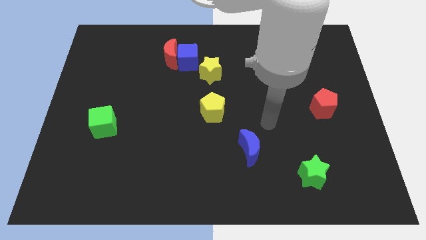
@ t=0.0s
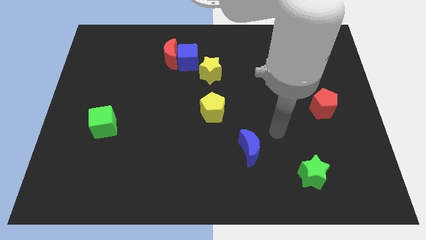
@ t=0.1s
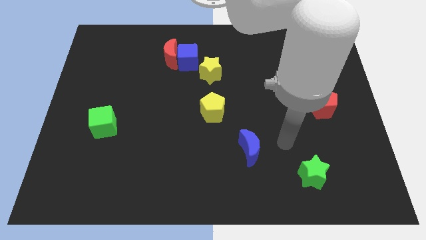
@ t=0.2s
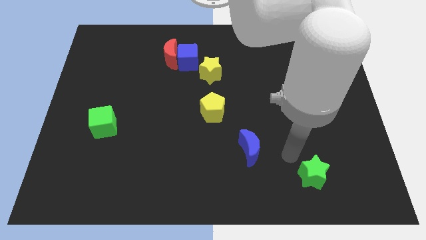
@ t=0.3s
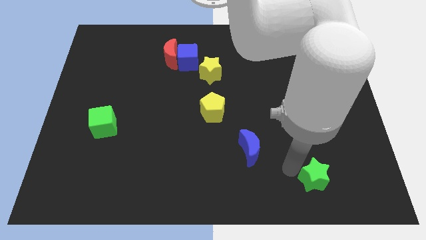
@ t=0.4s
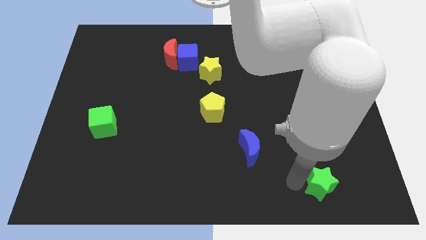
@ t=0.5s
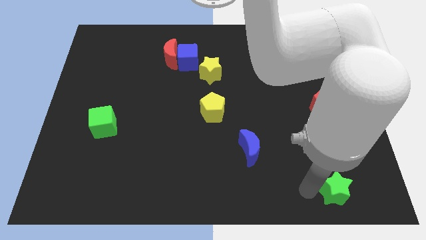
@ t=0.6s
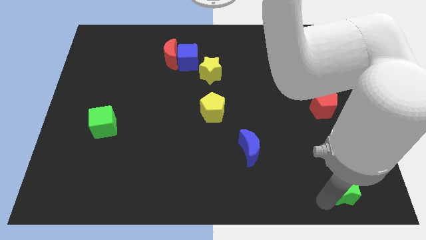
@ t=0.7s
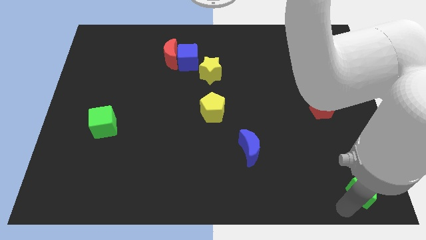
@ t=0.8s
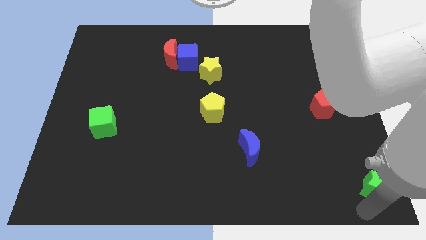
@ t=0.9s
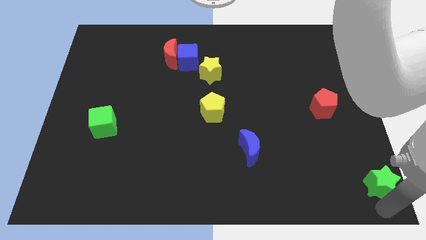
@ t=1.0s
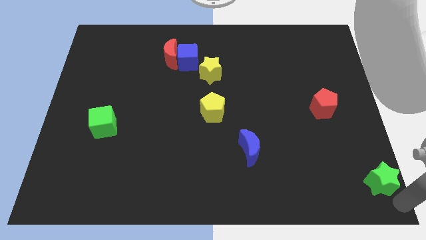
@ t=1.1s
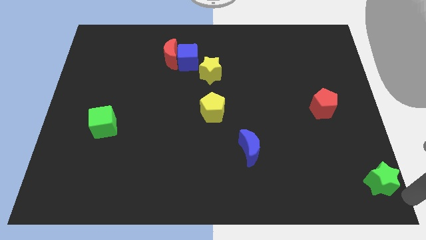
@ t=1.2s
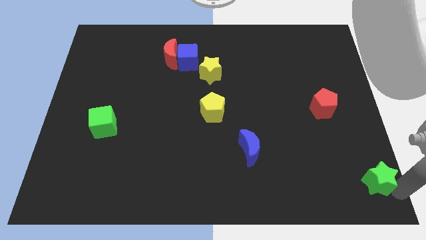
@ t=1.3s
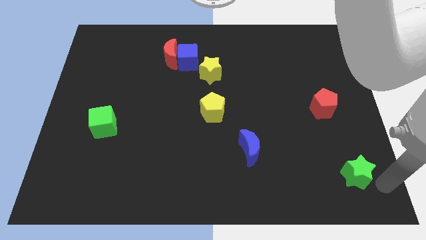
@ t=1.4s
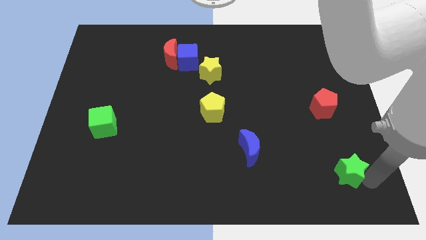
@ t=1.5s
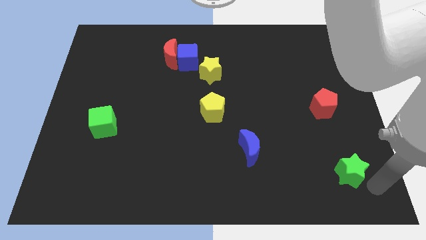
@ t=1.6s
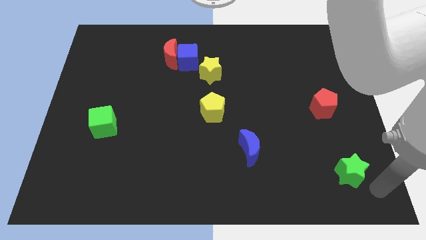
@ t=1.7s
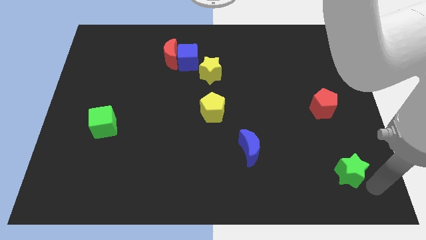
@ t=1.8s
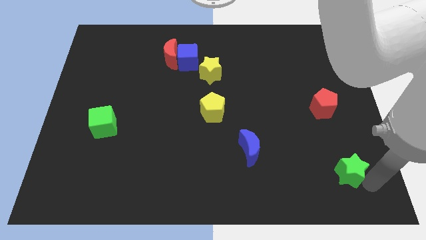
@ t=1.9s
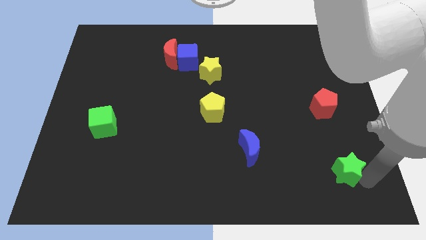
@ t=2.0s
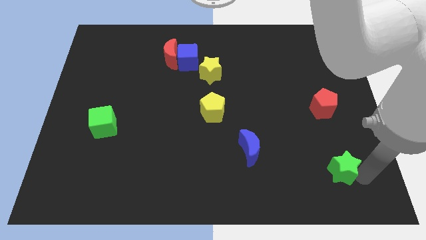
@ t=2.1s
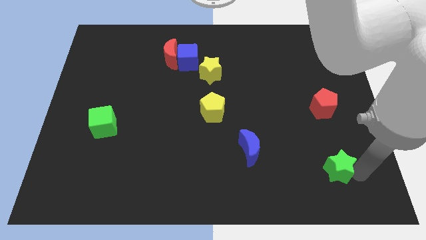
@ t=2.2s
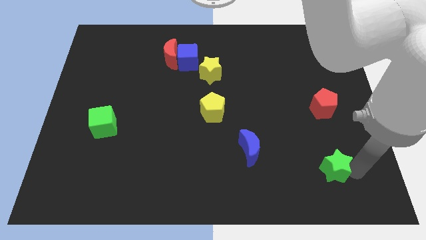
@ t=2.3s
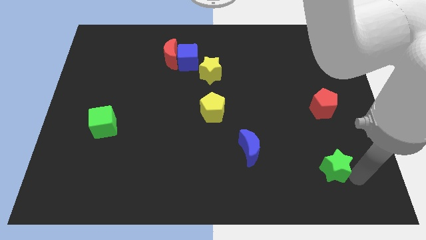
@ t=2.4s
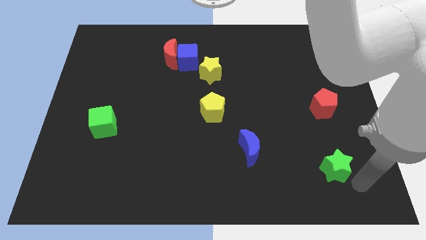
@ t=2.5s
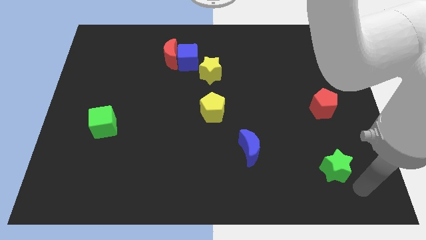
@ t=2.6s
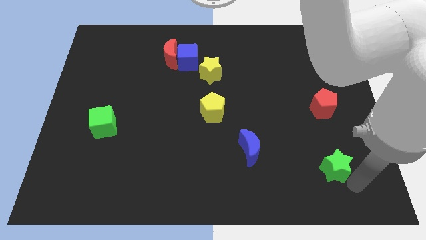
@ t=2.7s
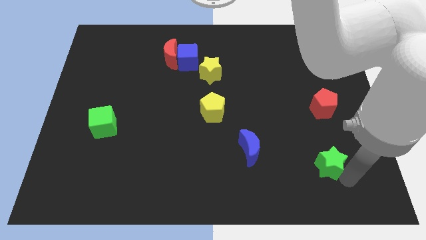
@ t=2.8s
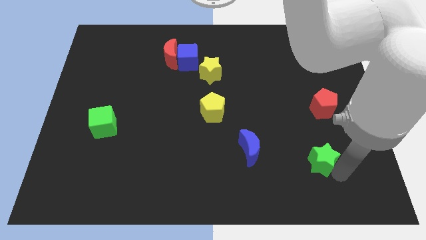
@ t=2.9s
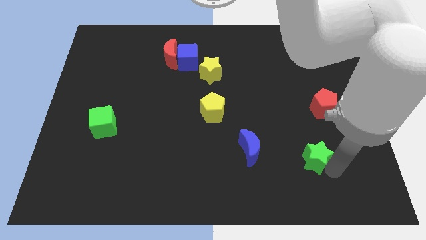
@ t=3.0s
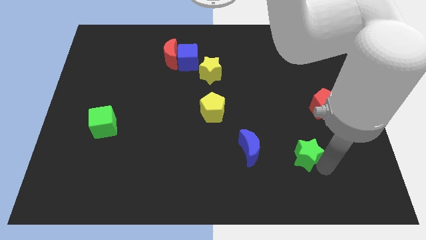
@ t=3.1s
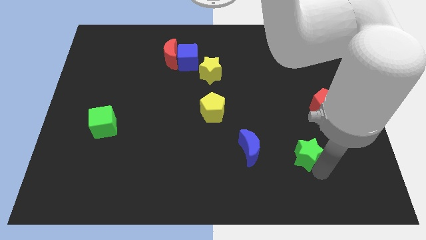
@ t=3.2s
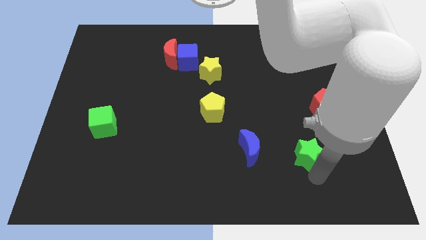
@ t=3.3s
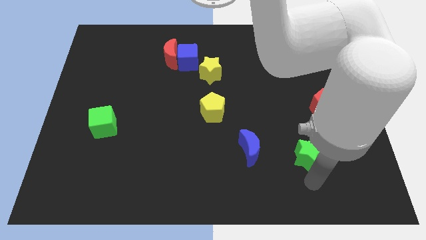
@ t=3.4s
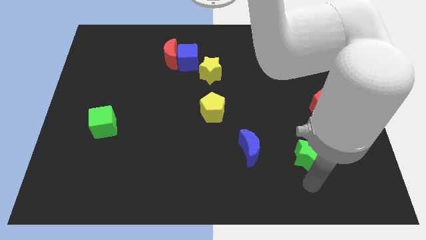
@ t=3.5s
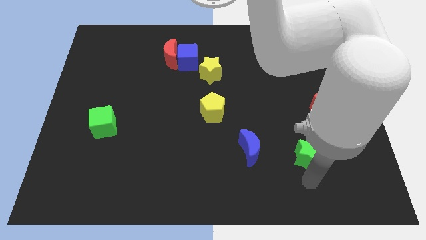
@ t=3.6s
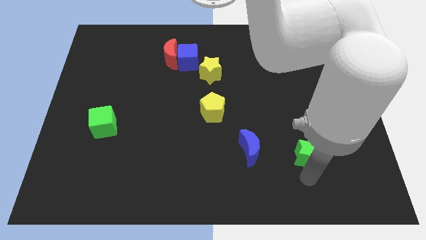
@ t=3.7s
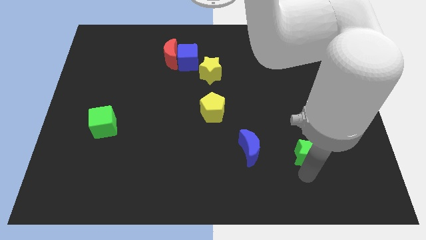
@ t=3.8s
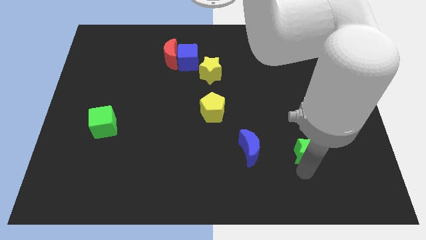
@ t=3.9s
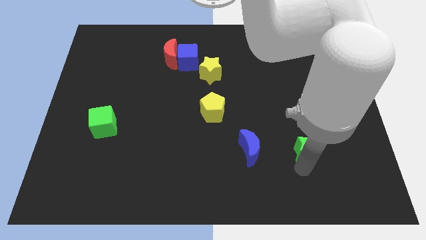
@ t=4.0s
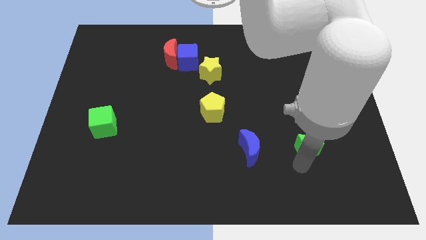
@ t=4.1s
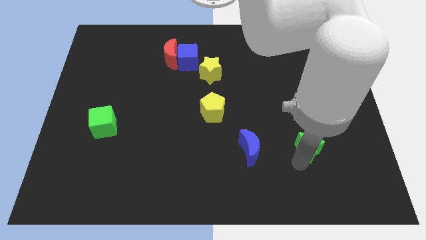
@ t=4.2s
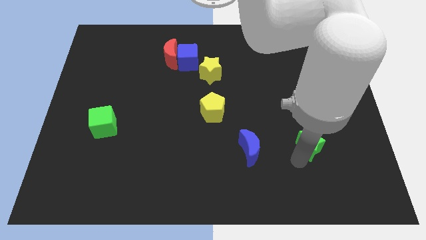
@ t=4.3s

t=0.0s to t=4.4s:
move the green star a little upwards

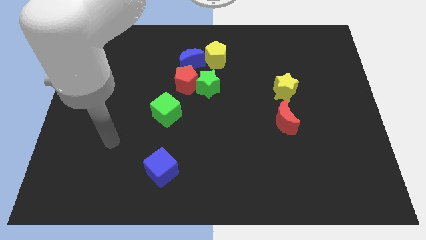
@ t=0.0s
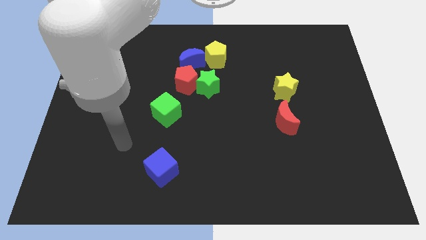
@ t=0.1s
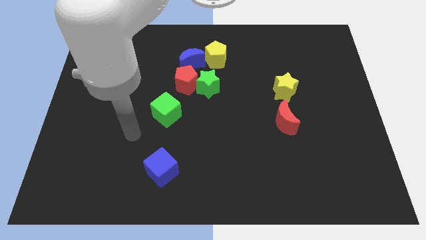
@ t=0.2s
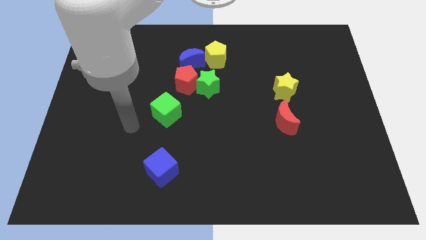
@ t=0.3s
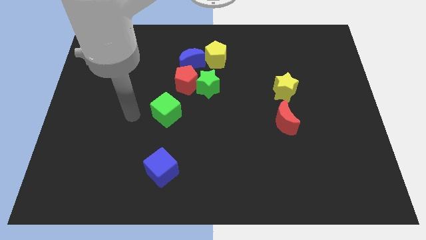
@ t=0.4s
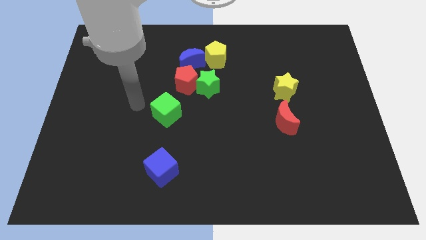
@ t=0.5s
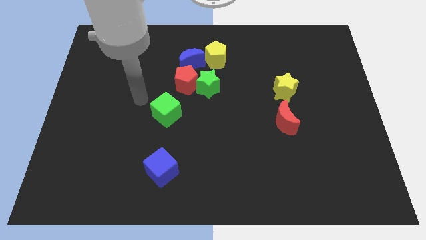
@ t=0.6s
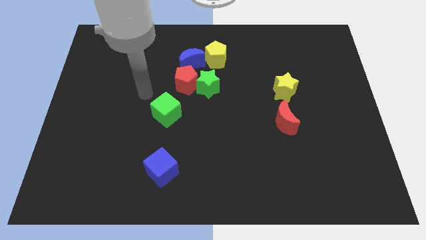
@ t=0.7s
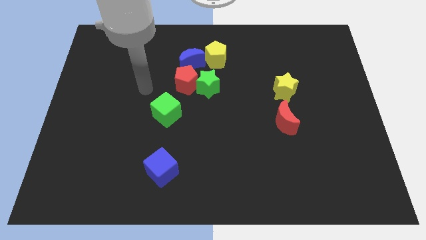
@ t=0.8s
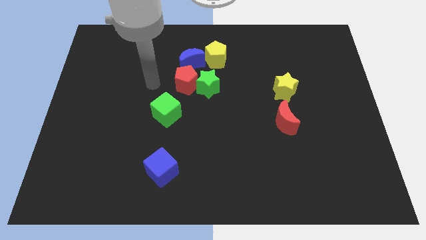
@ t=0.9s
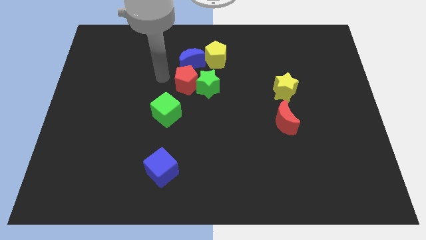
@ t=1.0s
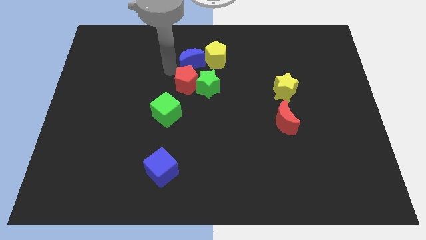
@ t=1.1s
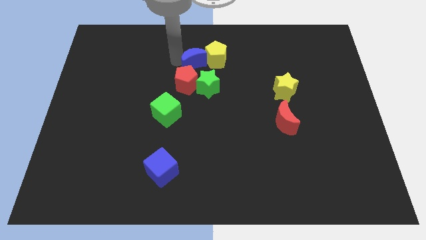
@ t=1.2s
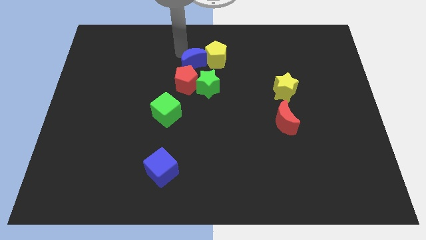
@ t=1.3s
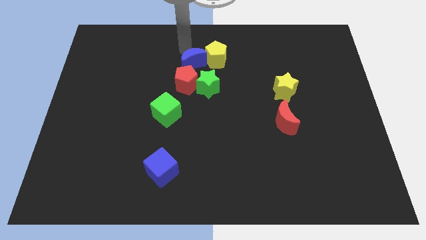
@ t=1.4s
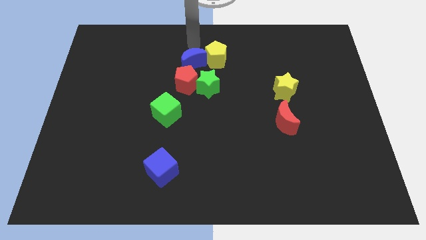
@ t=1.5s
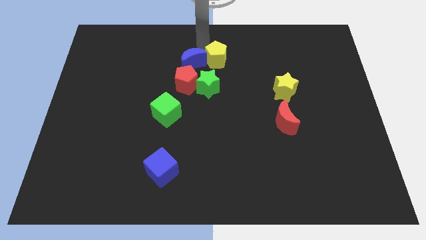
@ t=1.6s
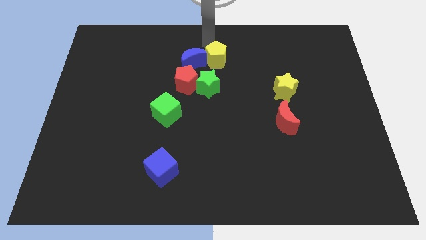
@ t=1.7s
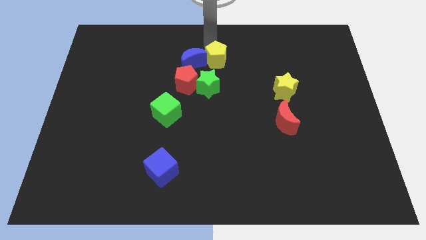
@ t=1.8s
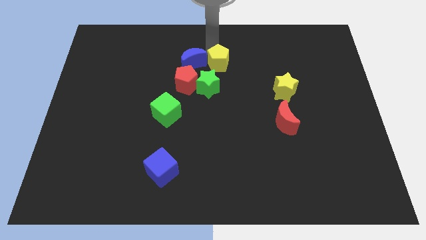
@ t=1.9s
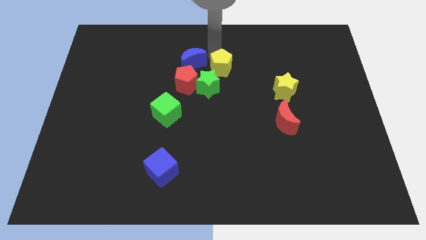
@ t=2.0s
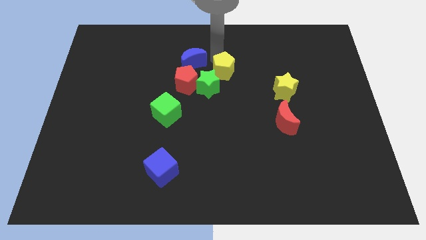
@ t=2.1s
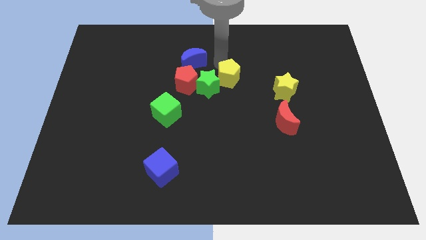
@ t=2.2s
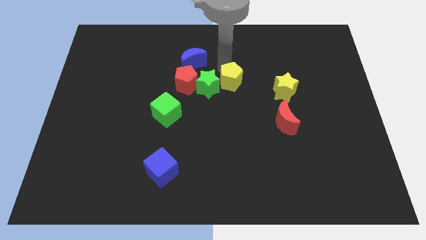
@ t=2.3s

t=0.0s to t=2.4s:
slightly slide the yellow pentagon downwards

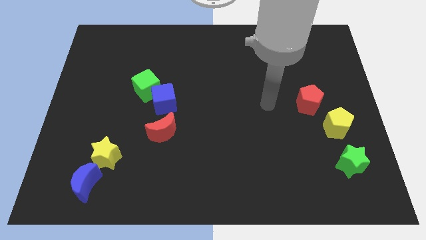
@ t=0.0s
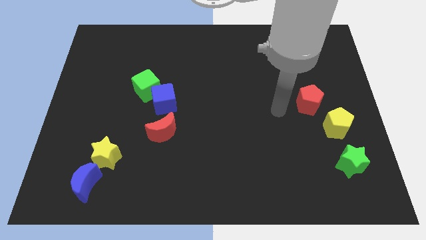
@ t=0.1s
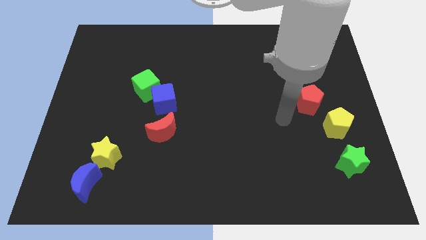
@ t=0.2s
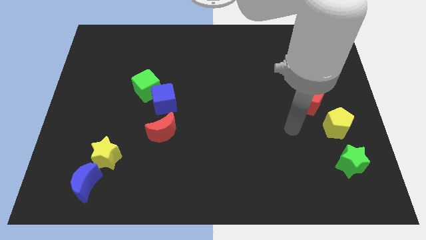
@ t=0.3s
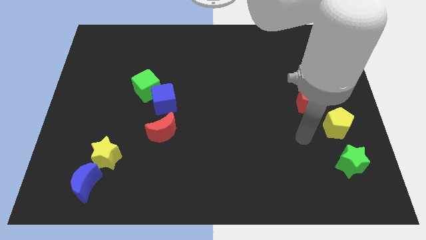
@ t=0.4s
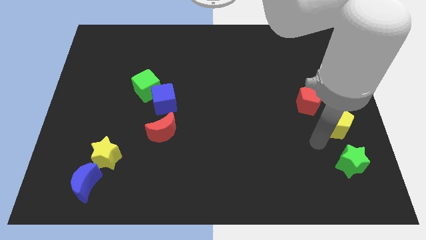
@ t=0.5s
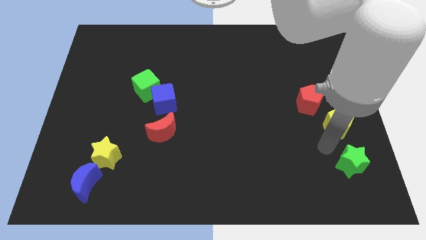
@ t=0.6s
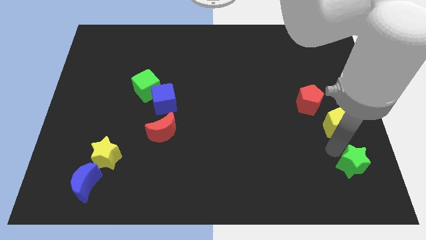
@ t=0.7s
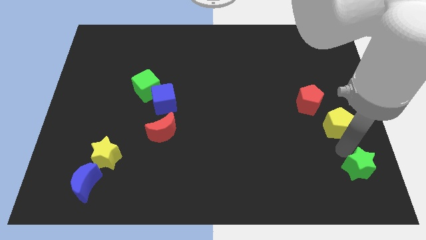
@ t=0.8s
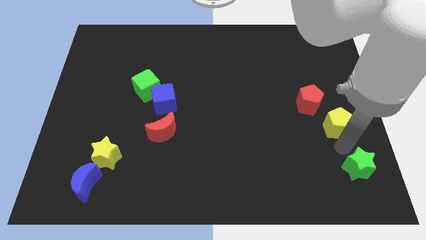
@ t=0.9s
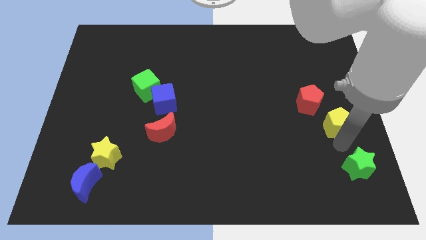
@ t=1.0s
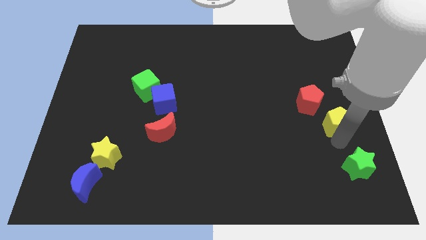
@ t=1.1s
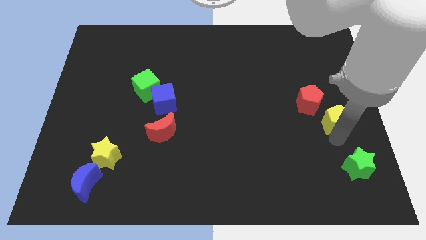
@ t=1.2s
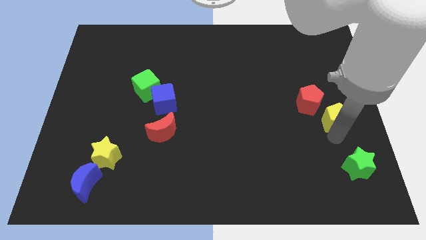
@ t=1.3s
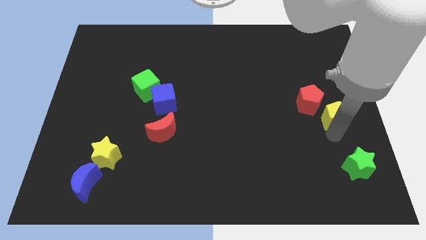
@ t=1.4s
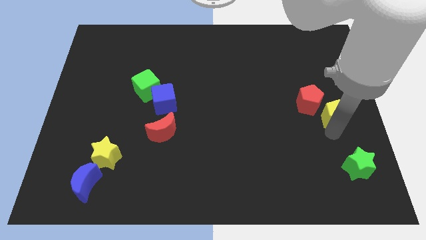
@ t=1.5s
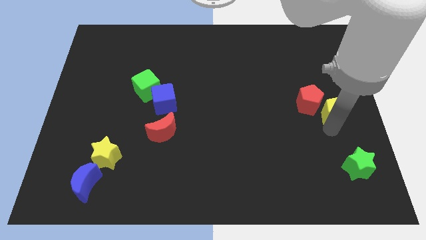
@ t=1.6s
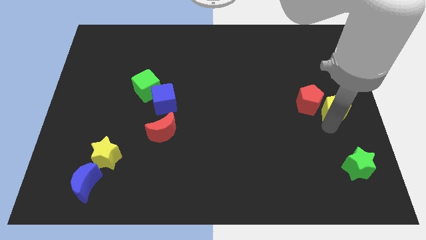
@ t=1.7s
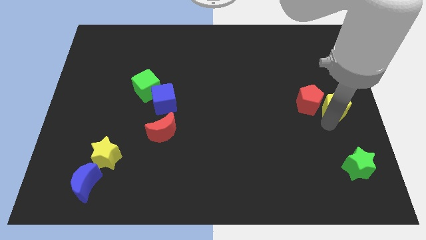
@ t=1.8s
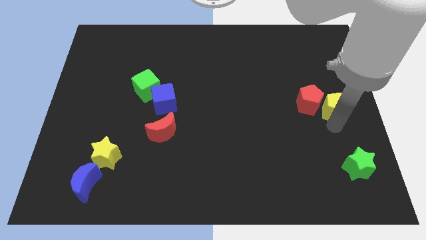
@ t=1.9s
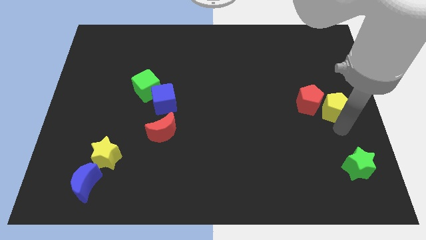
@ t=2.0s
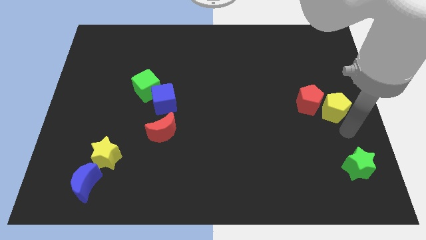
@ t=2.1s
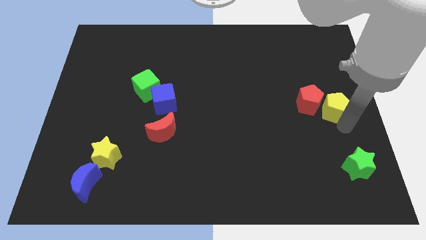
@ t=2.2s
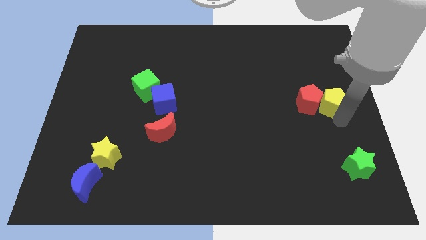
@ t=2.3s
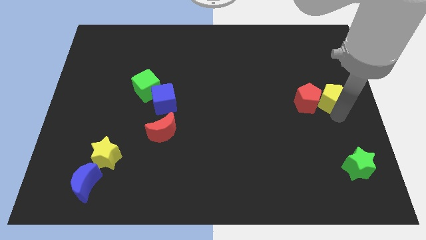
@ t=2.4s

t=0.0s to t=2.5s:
slide the yellow pentagon upwards a bit
